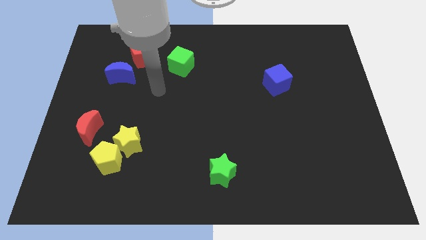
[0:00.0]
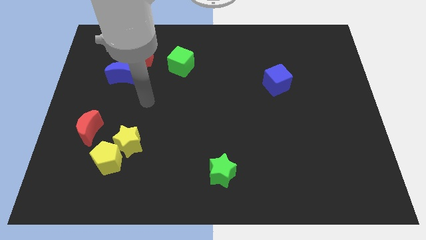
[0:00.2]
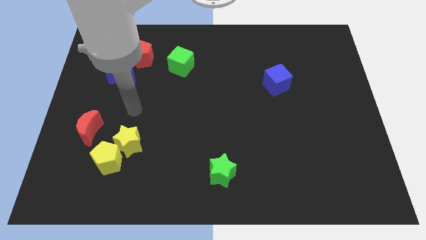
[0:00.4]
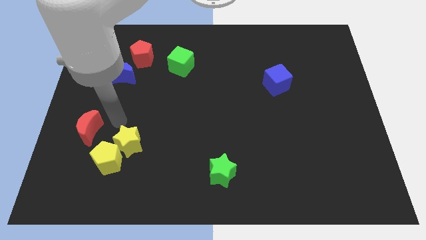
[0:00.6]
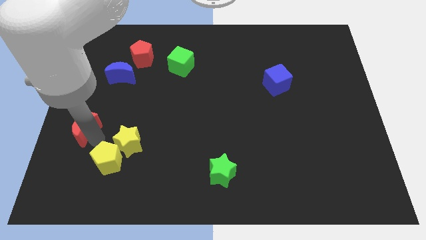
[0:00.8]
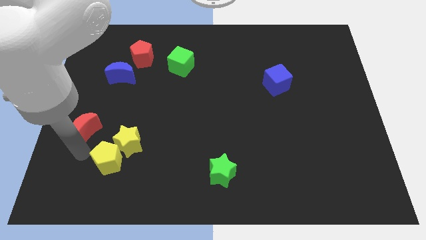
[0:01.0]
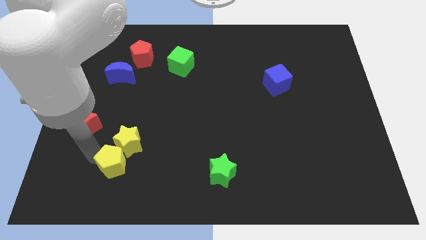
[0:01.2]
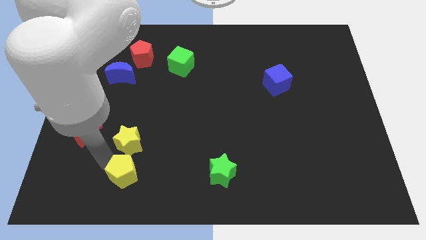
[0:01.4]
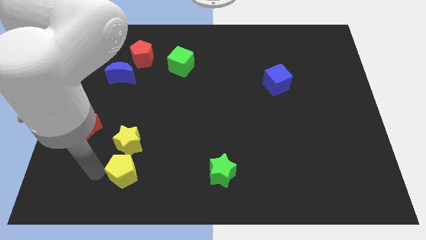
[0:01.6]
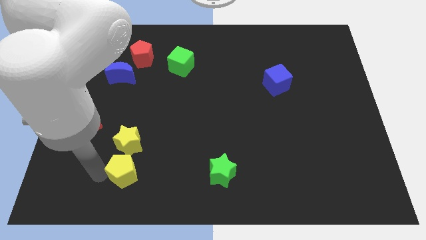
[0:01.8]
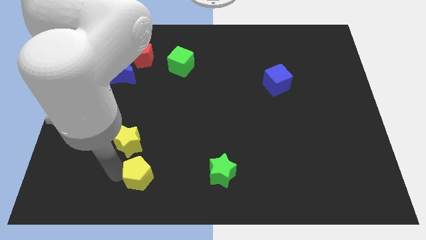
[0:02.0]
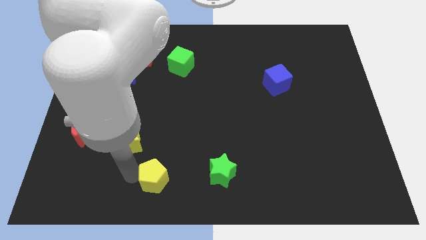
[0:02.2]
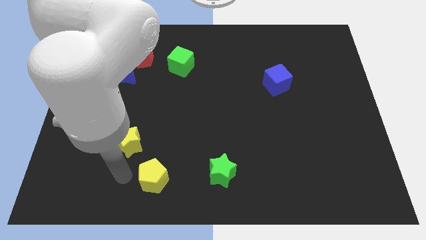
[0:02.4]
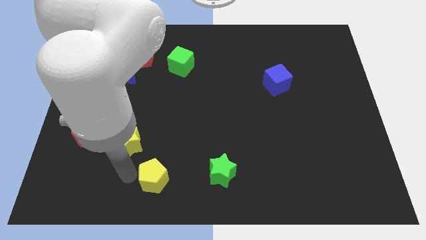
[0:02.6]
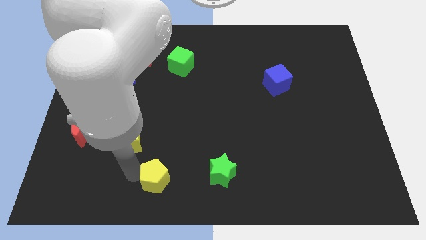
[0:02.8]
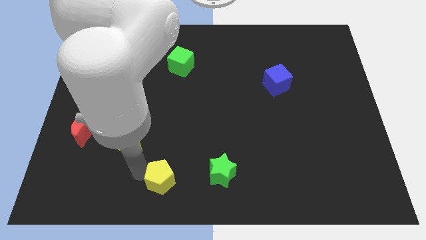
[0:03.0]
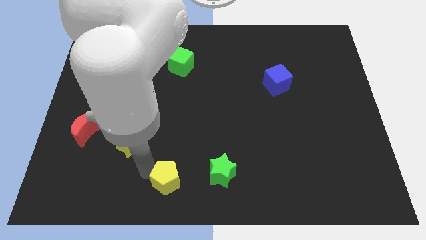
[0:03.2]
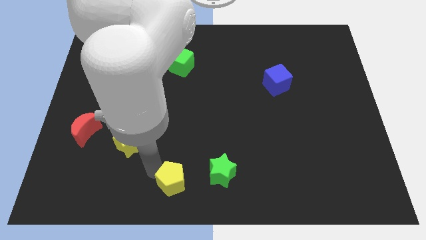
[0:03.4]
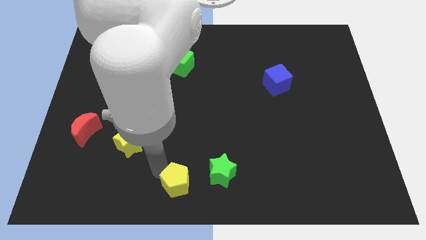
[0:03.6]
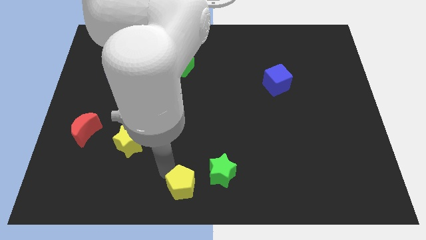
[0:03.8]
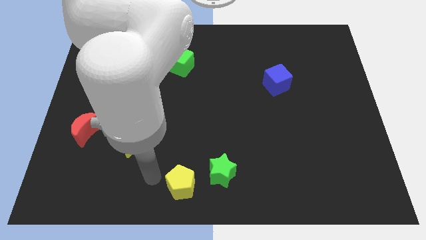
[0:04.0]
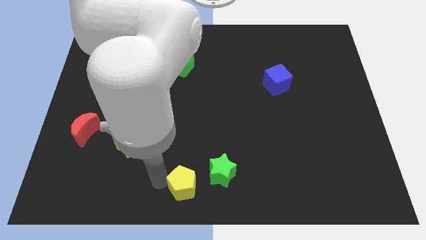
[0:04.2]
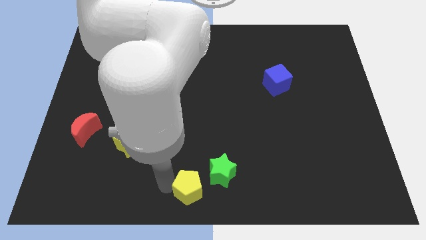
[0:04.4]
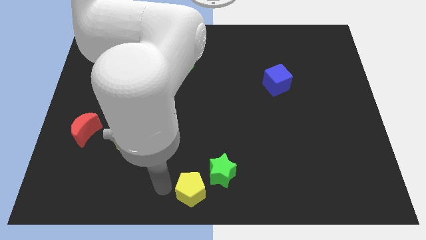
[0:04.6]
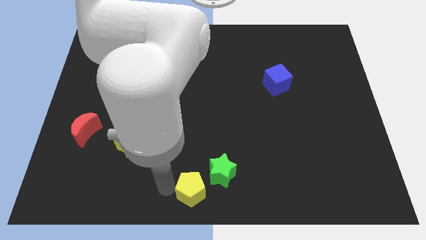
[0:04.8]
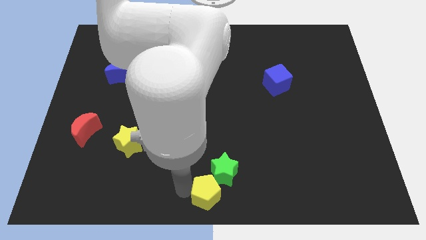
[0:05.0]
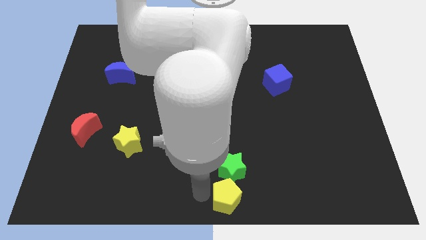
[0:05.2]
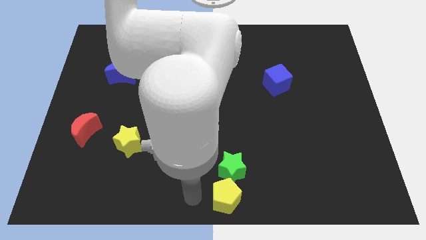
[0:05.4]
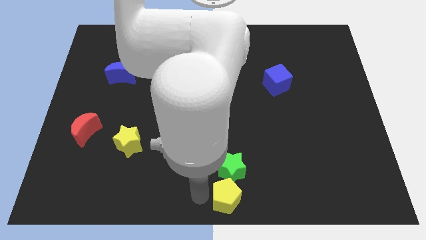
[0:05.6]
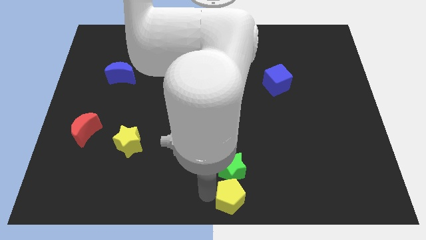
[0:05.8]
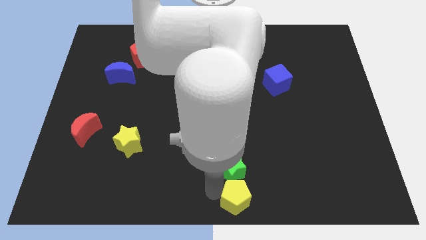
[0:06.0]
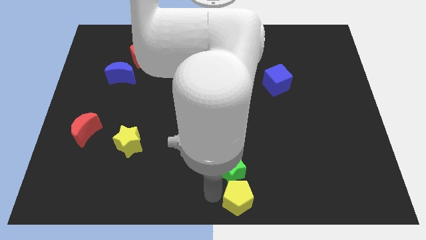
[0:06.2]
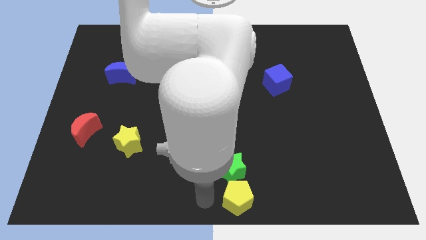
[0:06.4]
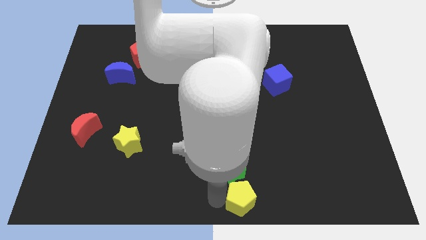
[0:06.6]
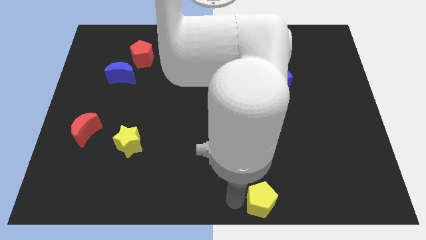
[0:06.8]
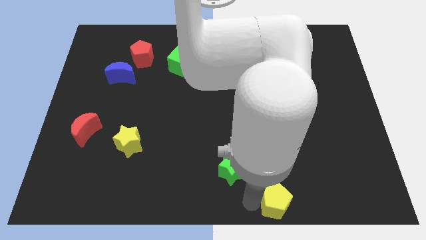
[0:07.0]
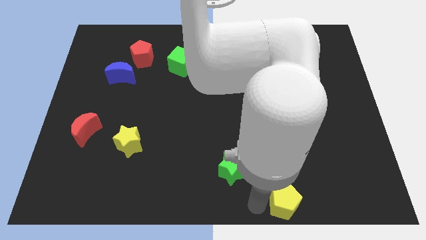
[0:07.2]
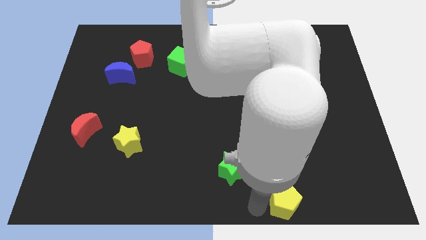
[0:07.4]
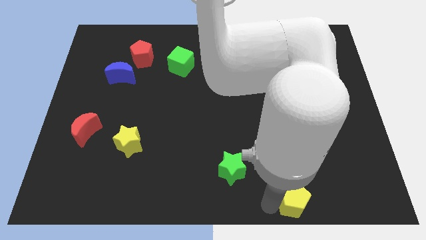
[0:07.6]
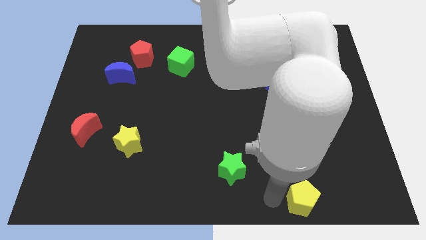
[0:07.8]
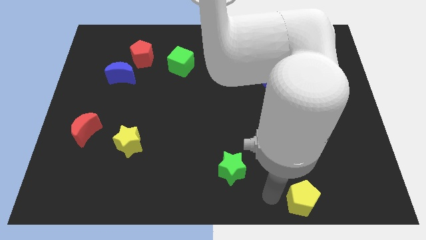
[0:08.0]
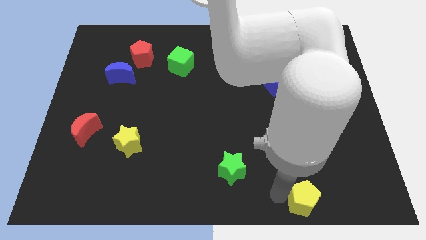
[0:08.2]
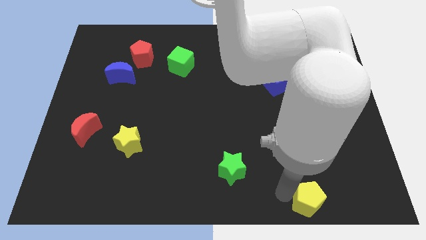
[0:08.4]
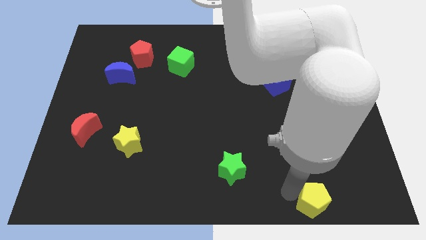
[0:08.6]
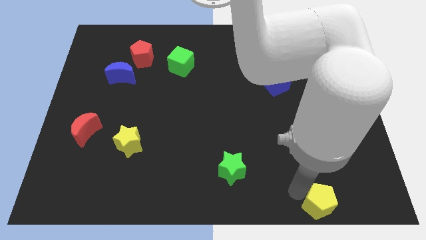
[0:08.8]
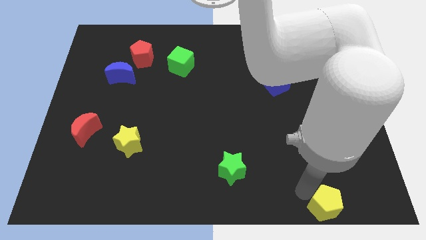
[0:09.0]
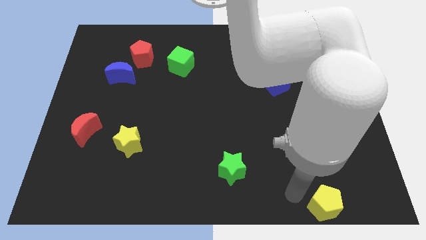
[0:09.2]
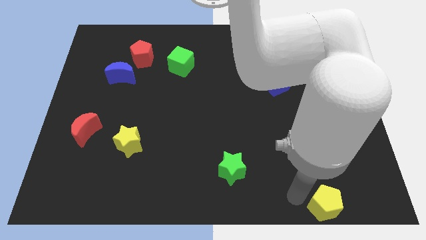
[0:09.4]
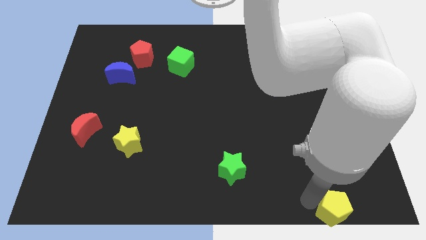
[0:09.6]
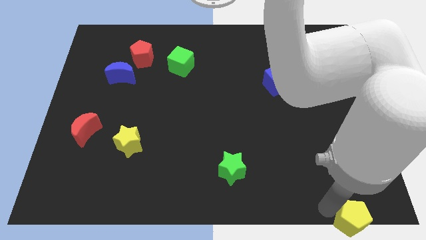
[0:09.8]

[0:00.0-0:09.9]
push the yellow pentagon to the bottom right

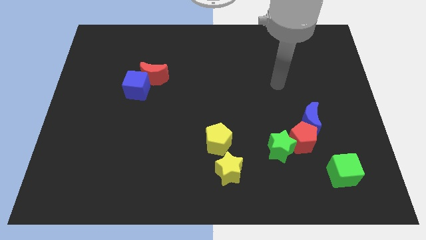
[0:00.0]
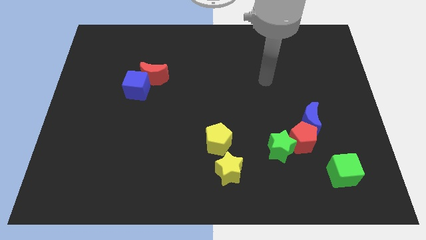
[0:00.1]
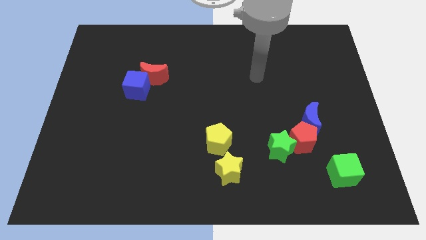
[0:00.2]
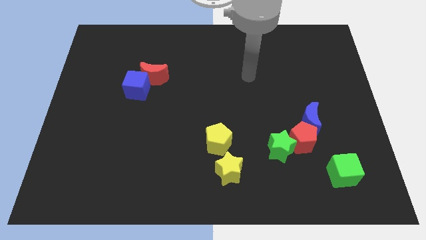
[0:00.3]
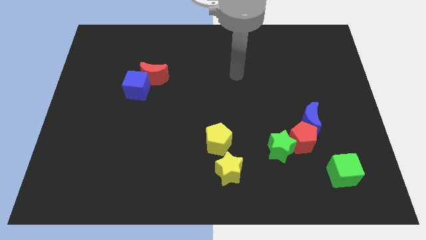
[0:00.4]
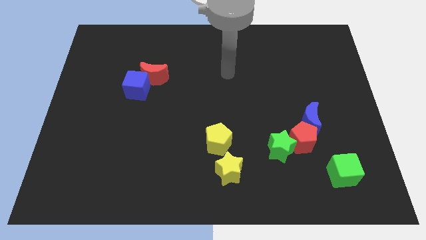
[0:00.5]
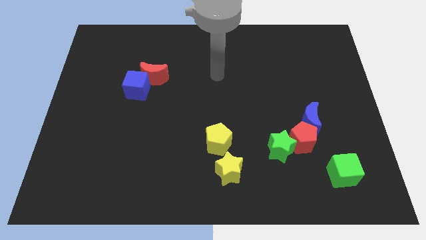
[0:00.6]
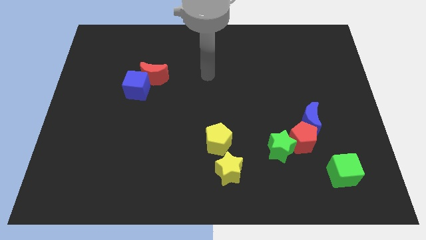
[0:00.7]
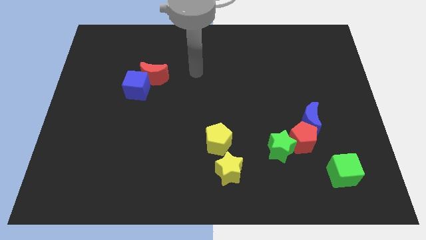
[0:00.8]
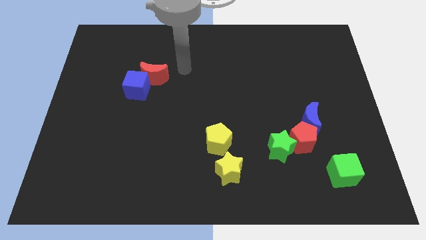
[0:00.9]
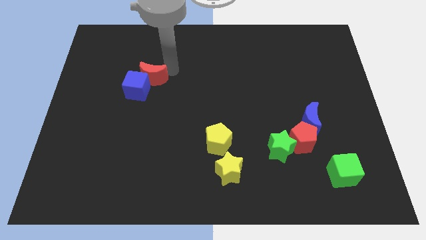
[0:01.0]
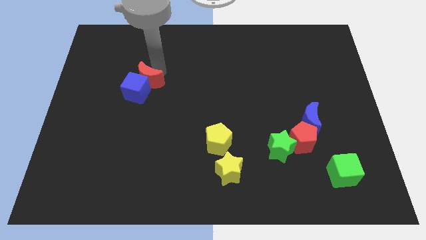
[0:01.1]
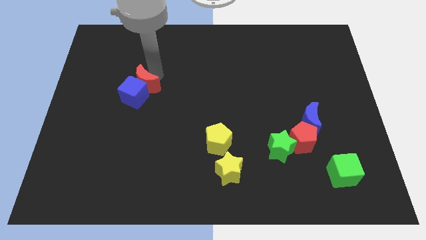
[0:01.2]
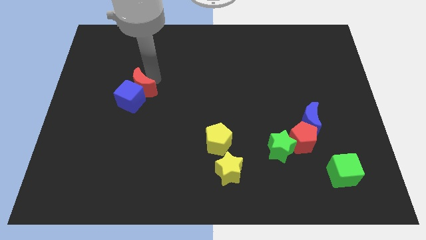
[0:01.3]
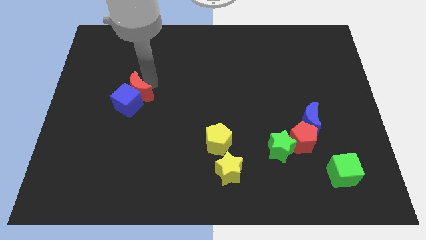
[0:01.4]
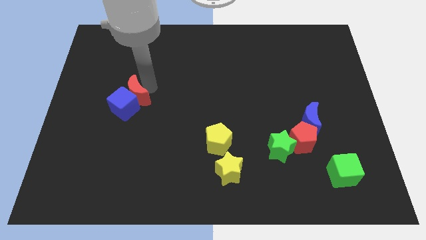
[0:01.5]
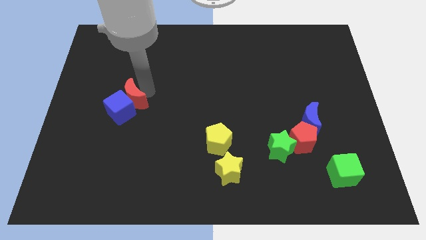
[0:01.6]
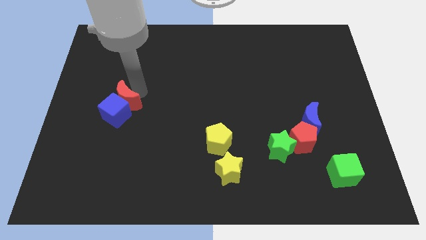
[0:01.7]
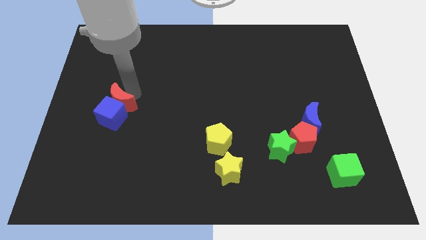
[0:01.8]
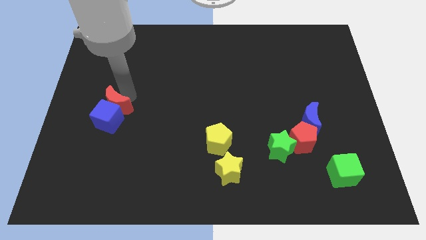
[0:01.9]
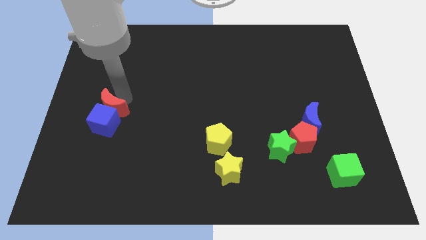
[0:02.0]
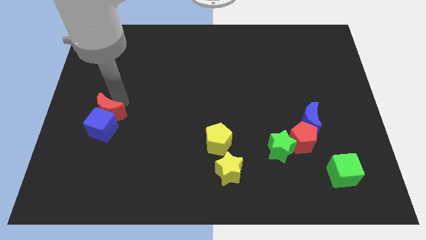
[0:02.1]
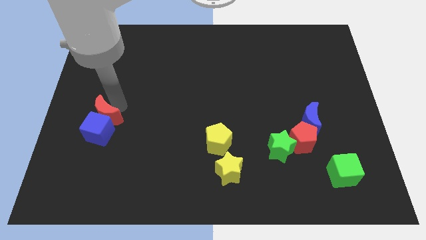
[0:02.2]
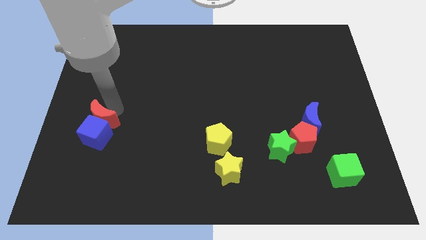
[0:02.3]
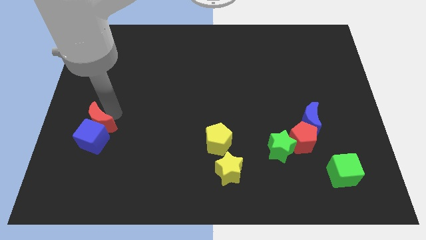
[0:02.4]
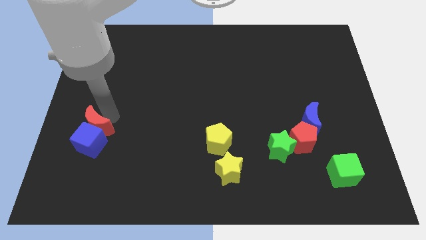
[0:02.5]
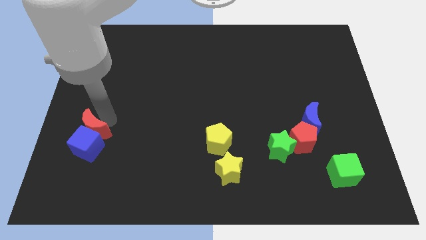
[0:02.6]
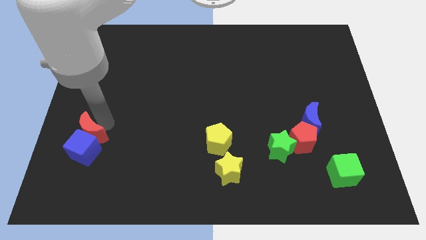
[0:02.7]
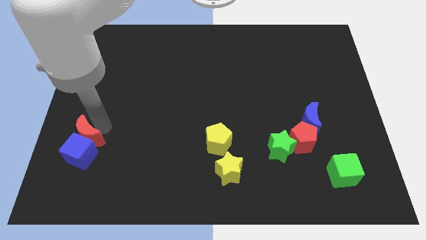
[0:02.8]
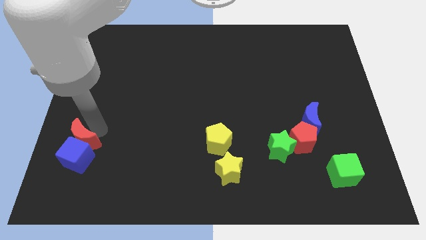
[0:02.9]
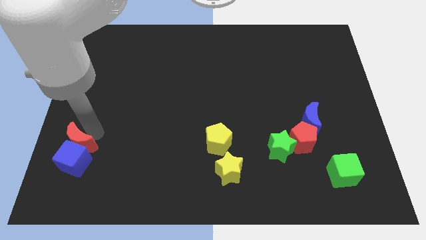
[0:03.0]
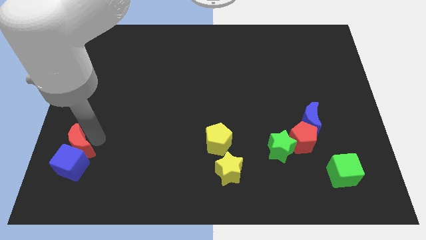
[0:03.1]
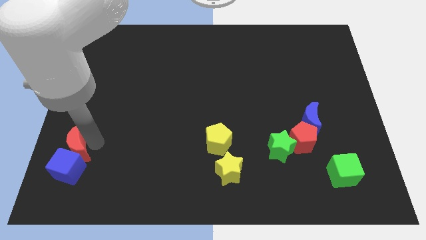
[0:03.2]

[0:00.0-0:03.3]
put the blue cube to the bottom left of the board

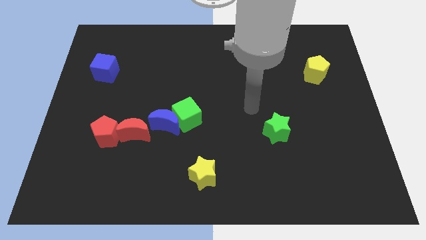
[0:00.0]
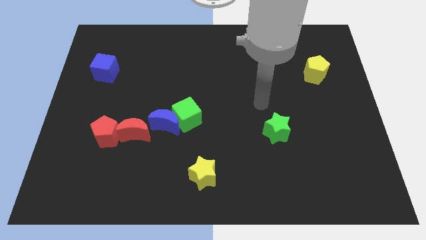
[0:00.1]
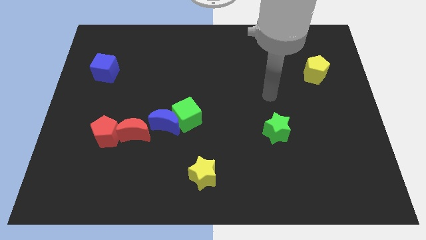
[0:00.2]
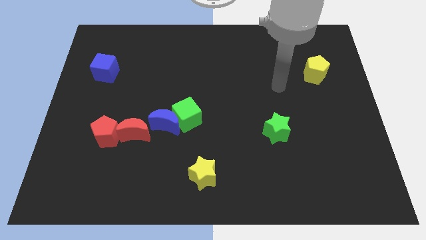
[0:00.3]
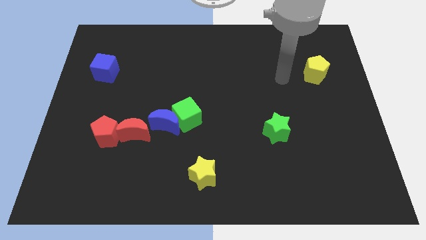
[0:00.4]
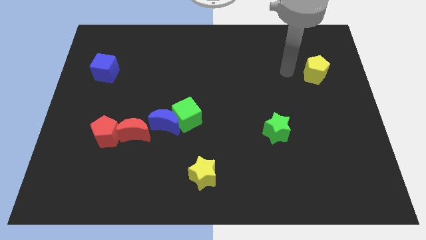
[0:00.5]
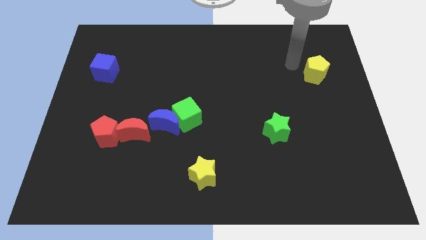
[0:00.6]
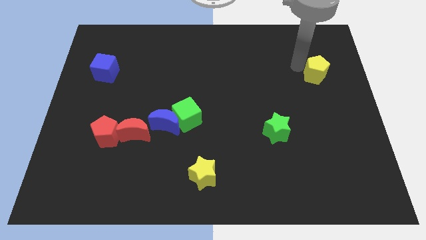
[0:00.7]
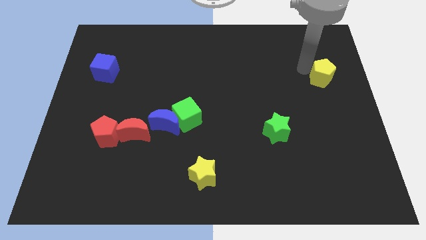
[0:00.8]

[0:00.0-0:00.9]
slide the yellow pentagon to the right side
